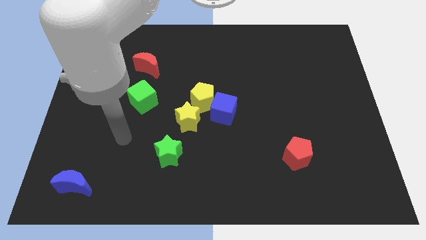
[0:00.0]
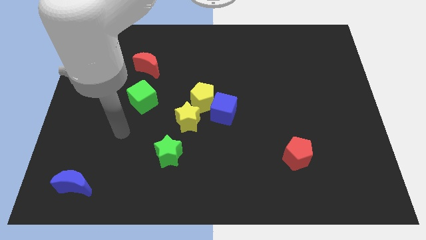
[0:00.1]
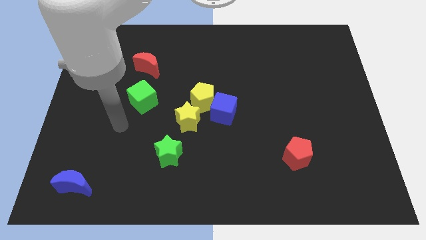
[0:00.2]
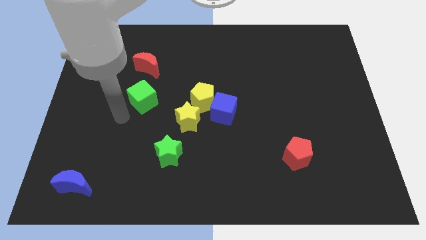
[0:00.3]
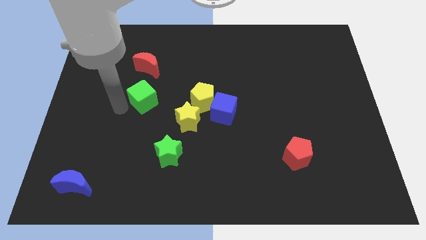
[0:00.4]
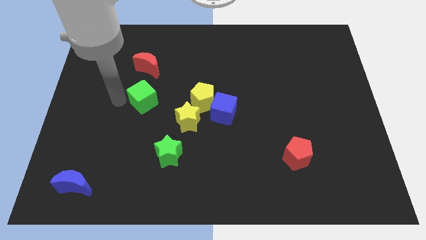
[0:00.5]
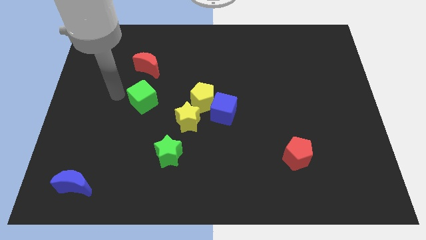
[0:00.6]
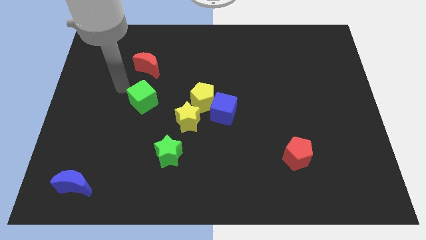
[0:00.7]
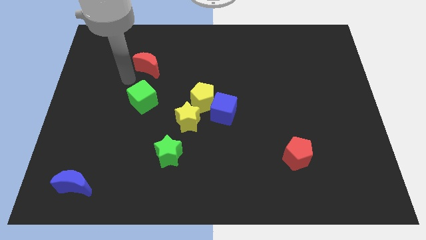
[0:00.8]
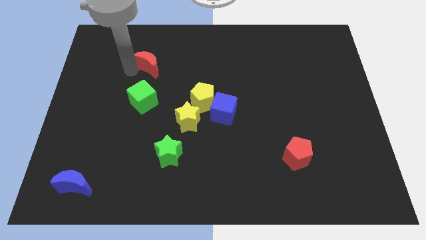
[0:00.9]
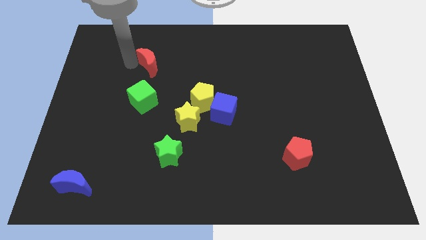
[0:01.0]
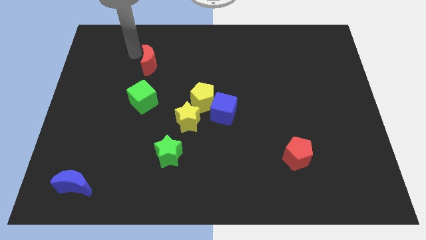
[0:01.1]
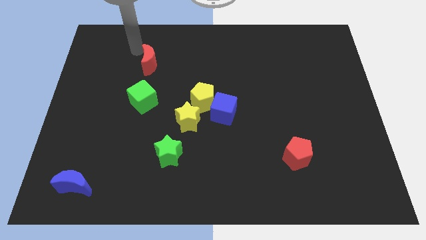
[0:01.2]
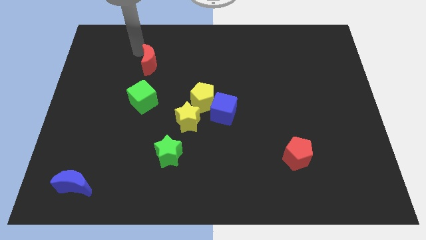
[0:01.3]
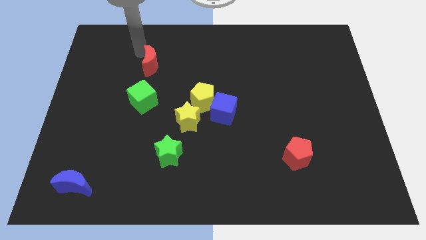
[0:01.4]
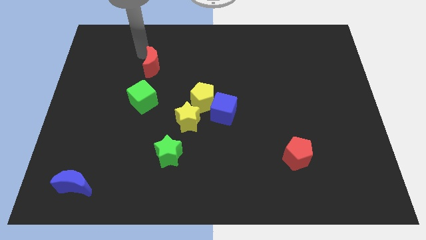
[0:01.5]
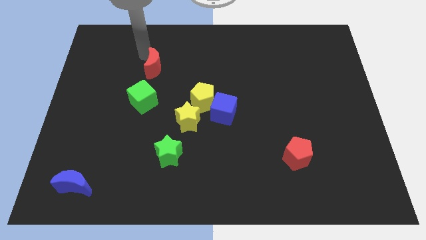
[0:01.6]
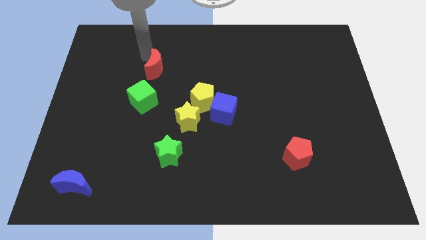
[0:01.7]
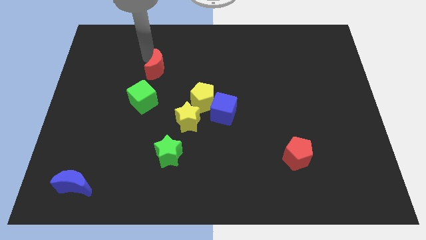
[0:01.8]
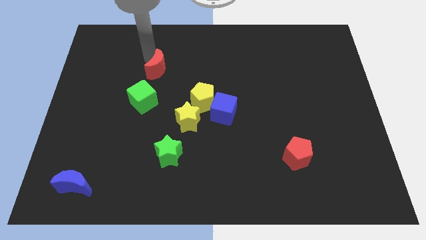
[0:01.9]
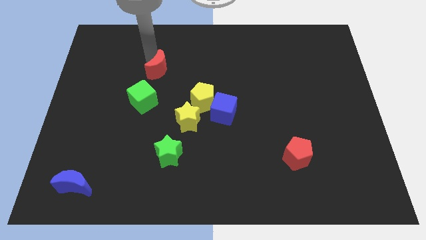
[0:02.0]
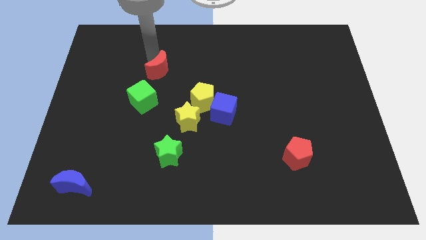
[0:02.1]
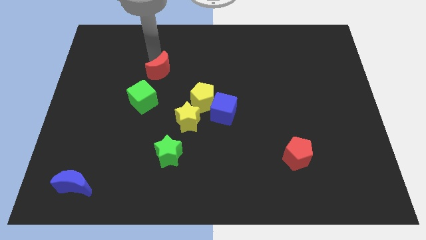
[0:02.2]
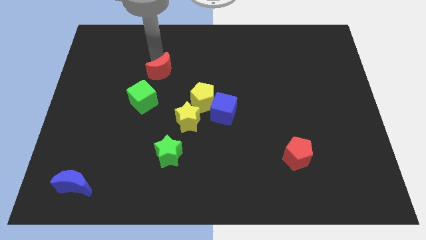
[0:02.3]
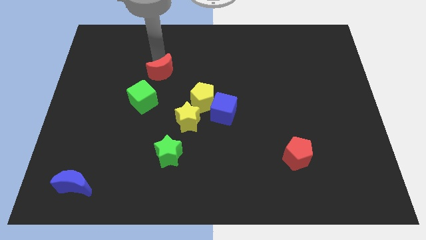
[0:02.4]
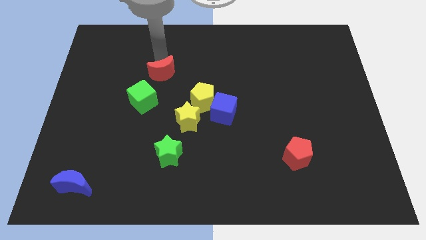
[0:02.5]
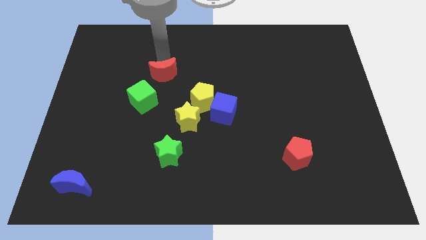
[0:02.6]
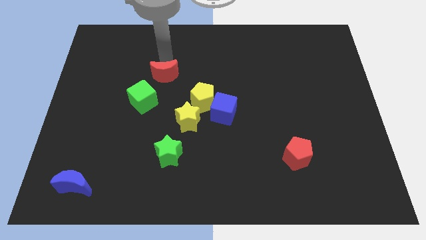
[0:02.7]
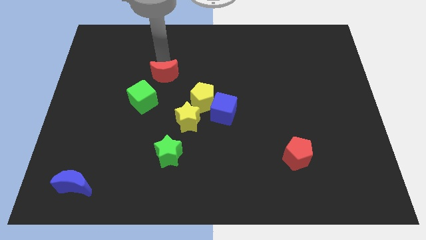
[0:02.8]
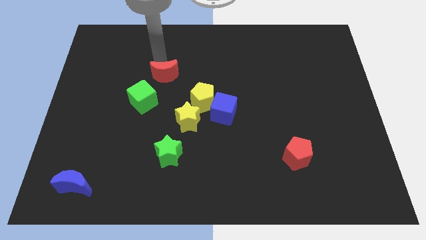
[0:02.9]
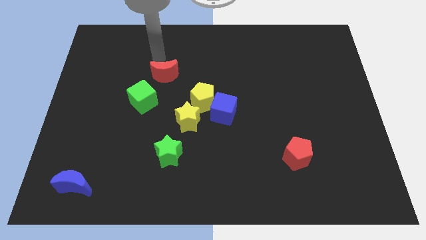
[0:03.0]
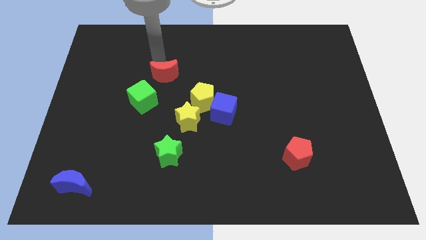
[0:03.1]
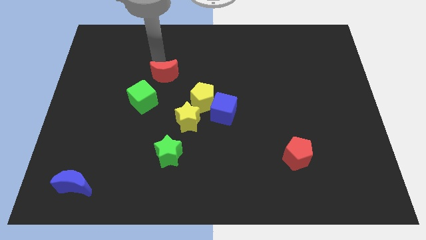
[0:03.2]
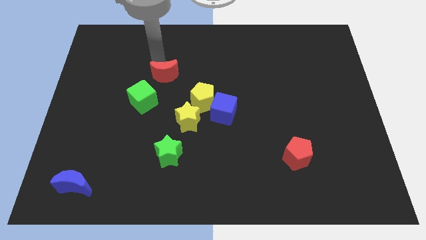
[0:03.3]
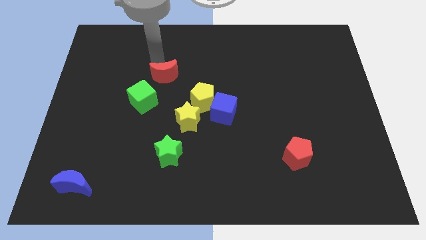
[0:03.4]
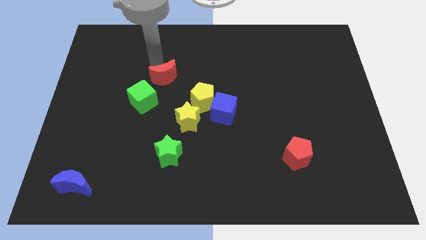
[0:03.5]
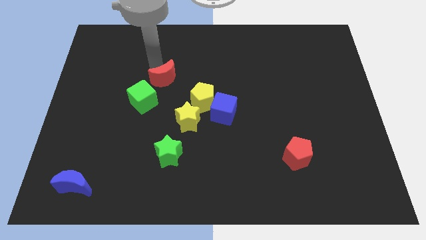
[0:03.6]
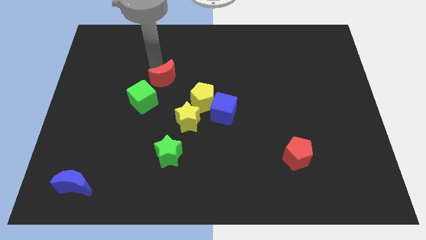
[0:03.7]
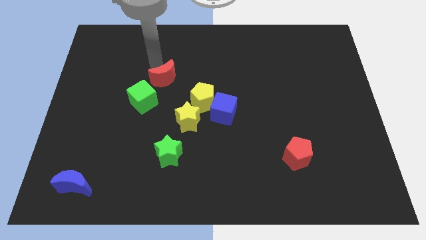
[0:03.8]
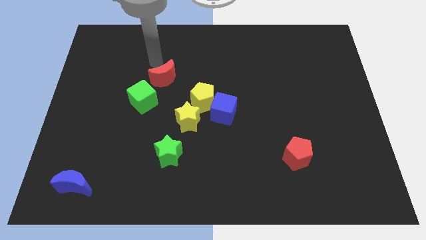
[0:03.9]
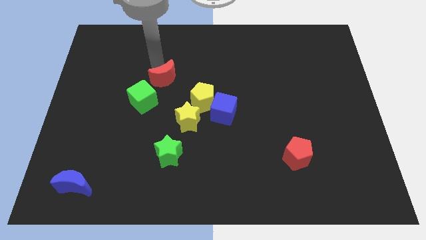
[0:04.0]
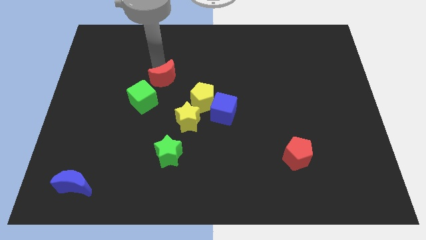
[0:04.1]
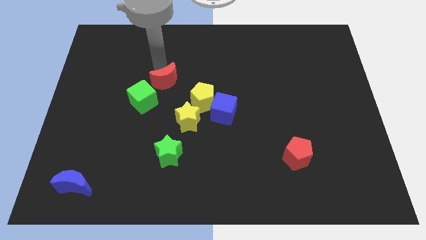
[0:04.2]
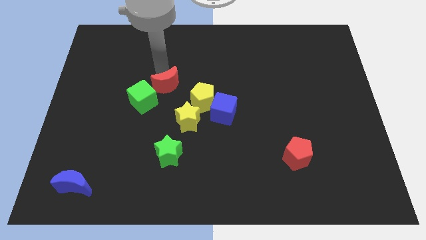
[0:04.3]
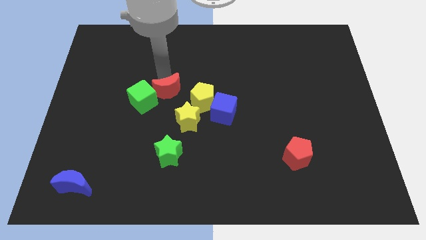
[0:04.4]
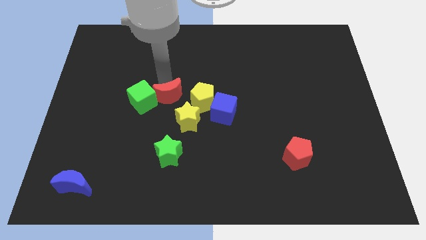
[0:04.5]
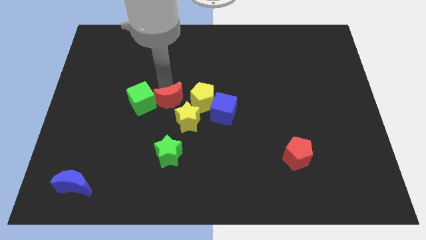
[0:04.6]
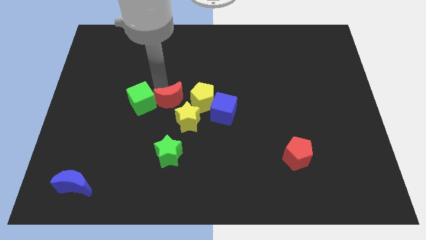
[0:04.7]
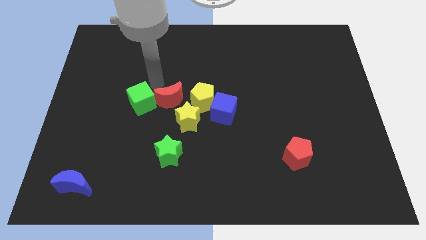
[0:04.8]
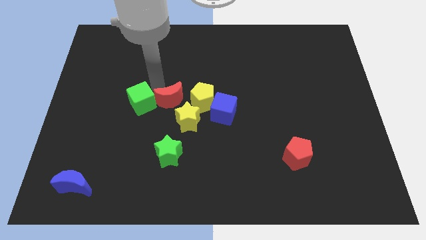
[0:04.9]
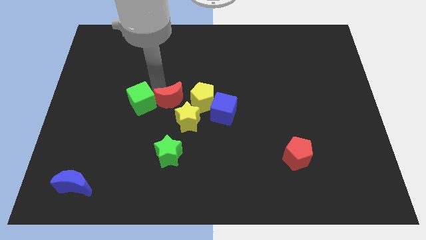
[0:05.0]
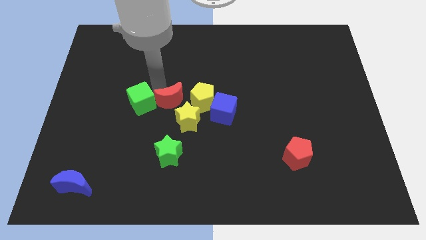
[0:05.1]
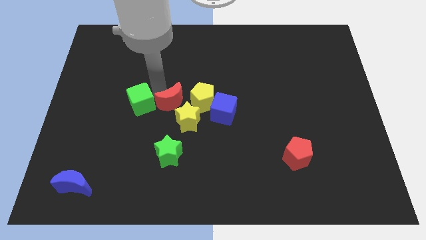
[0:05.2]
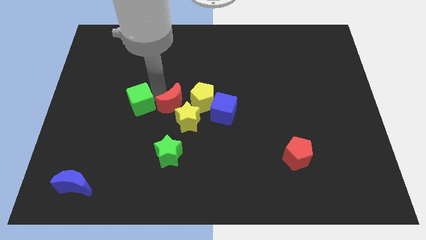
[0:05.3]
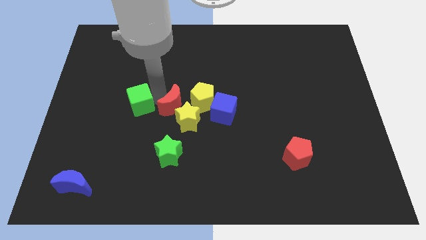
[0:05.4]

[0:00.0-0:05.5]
push the red moon to the yellow star

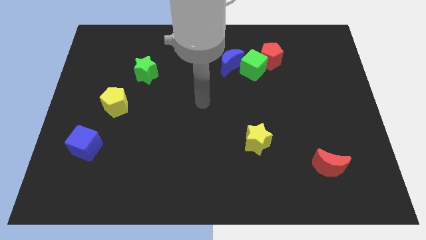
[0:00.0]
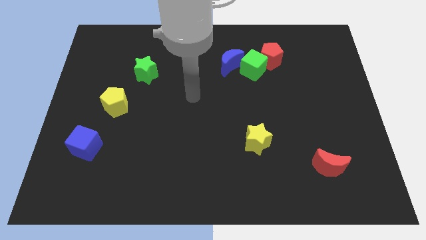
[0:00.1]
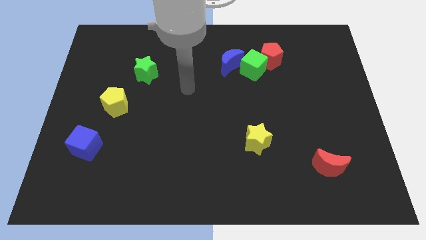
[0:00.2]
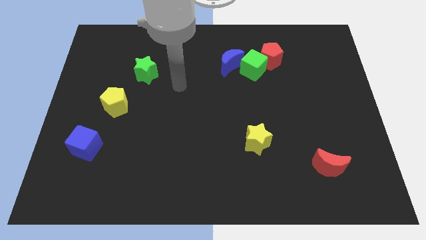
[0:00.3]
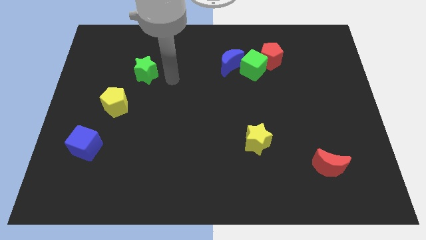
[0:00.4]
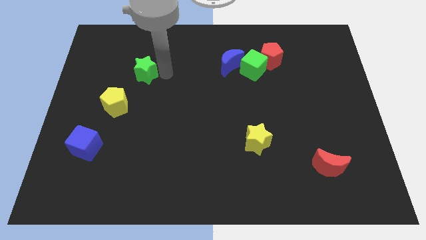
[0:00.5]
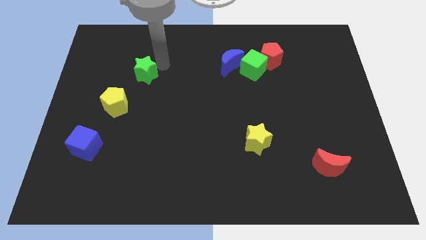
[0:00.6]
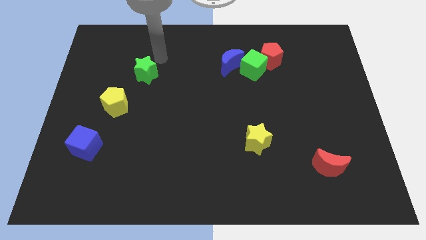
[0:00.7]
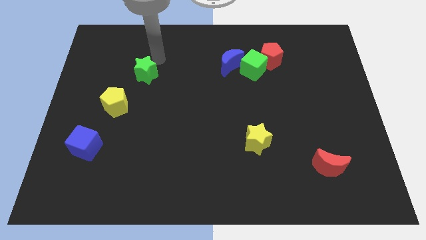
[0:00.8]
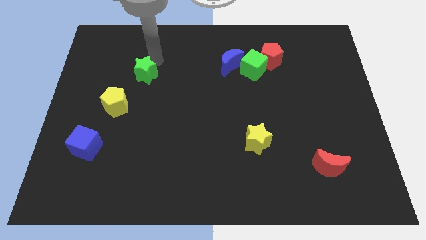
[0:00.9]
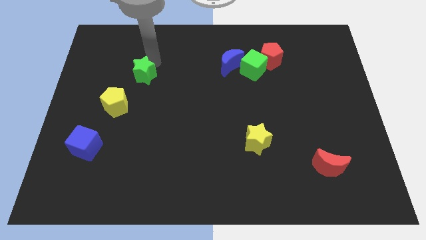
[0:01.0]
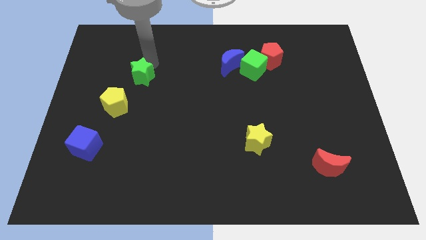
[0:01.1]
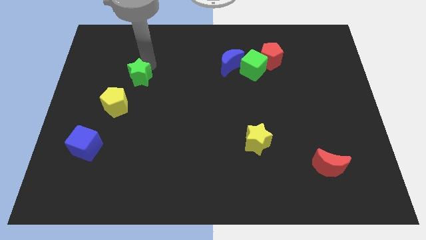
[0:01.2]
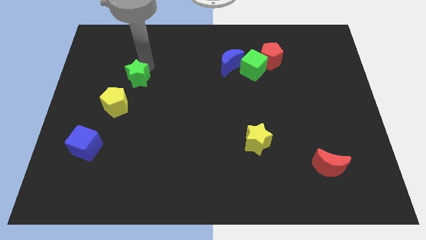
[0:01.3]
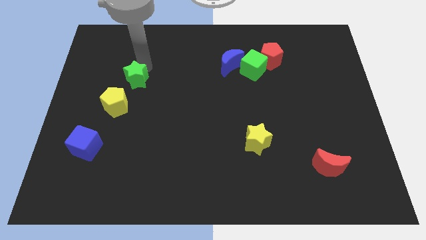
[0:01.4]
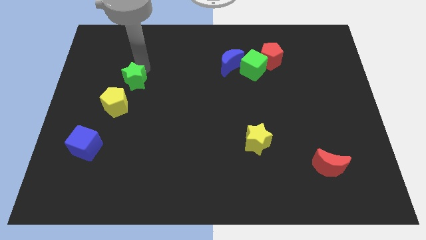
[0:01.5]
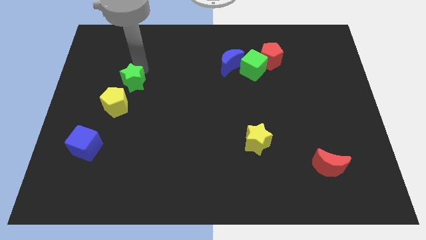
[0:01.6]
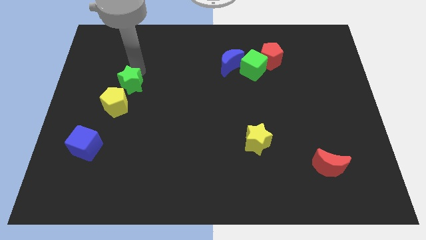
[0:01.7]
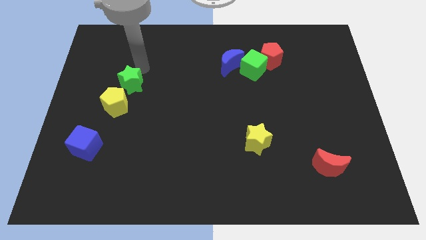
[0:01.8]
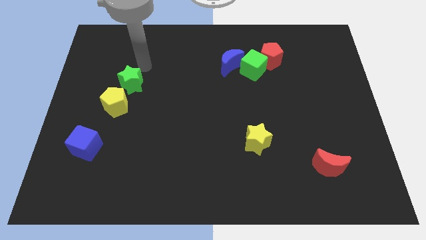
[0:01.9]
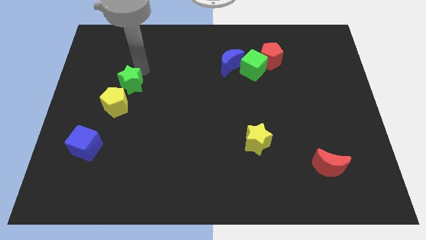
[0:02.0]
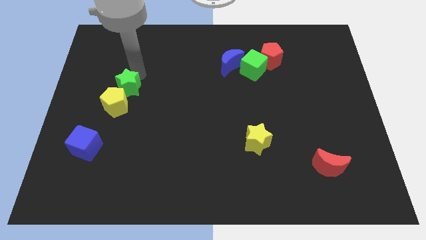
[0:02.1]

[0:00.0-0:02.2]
put the green star towards the yellow pentagon
